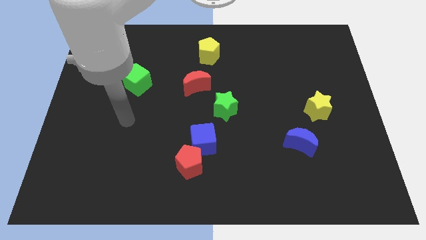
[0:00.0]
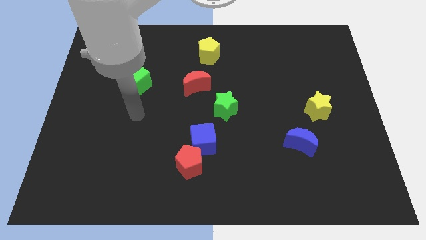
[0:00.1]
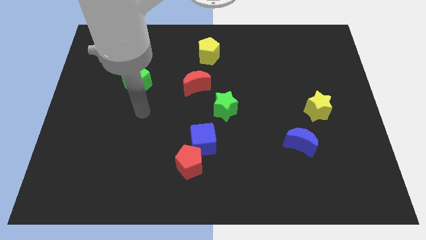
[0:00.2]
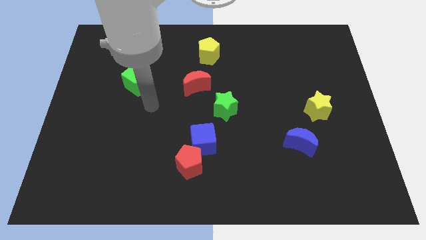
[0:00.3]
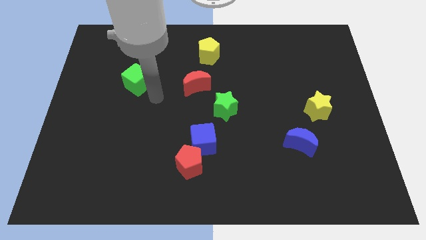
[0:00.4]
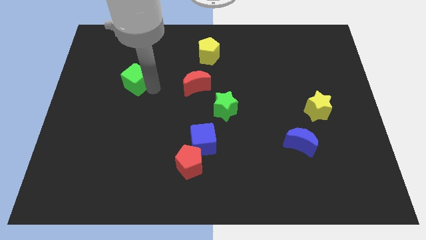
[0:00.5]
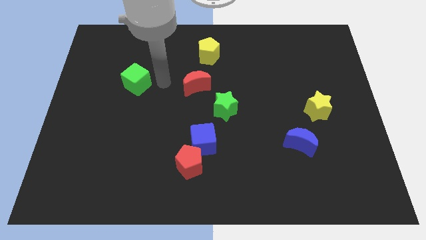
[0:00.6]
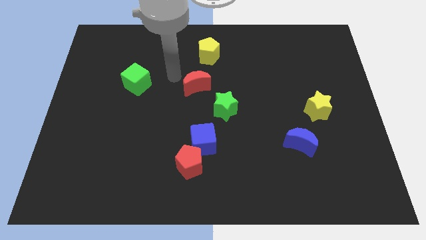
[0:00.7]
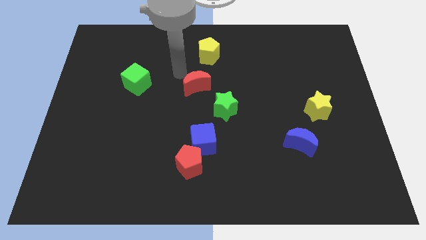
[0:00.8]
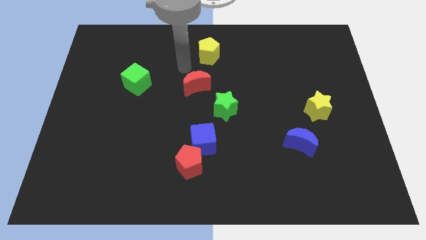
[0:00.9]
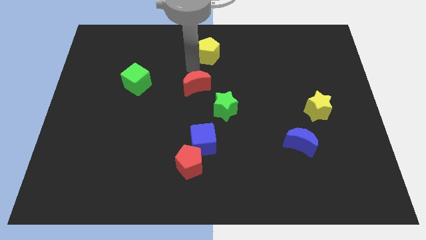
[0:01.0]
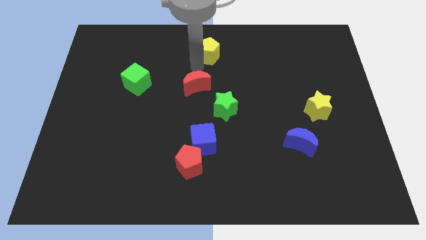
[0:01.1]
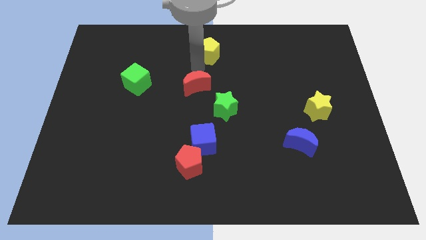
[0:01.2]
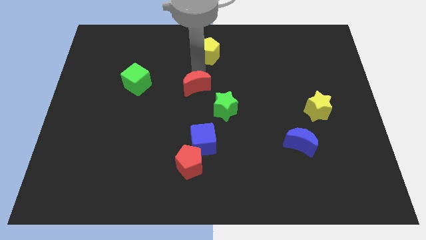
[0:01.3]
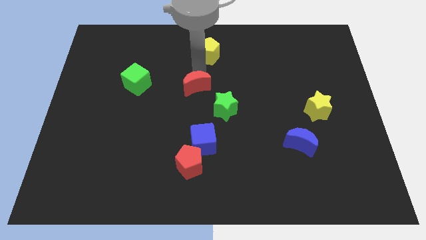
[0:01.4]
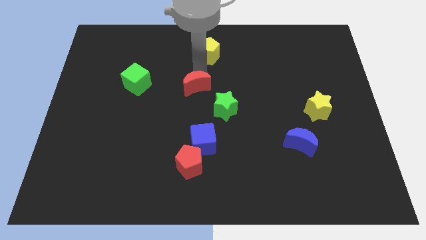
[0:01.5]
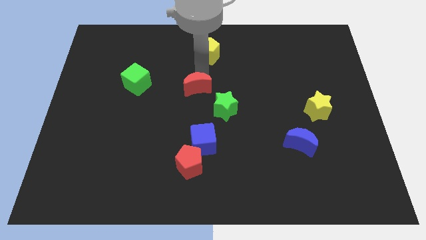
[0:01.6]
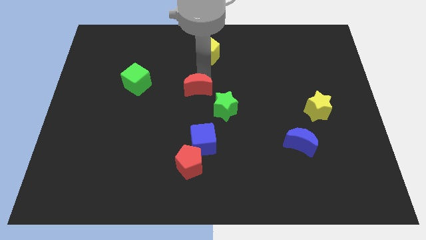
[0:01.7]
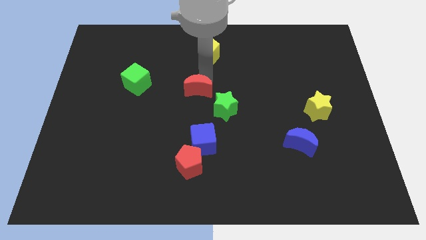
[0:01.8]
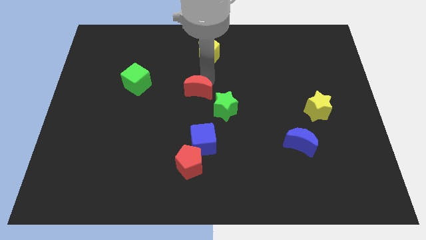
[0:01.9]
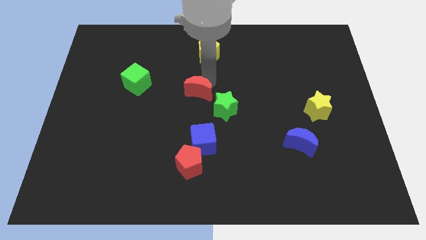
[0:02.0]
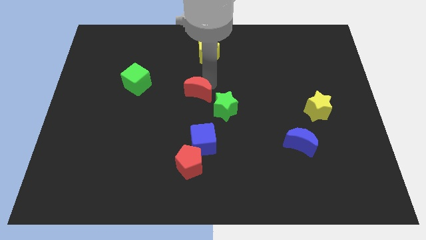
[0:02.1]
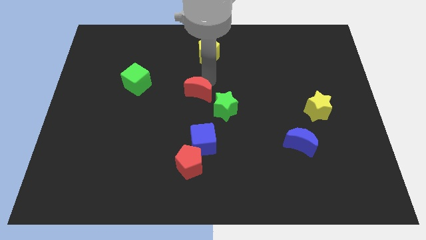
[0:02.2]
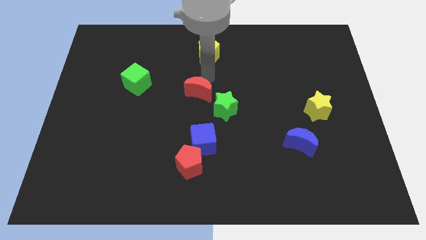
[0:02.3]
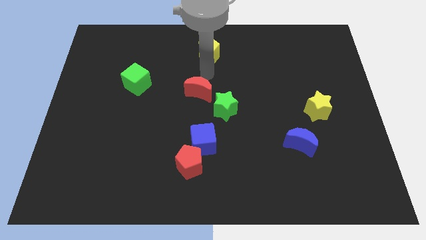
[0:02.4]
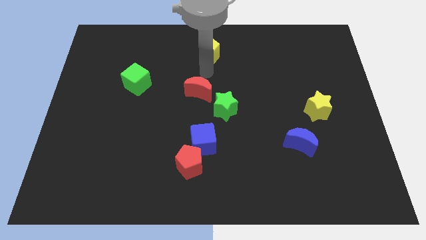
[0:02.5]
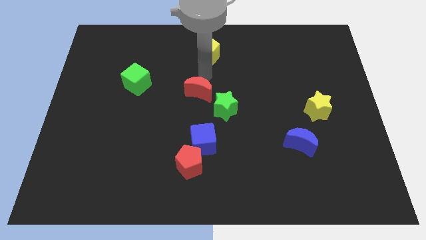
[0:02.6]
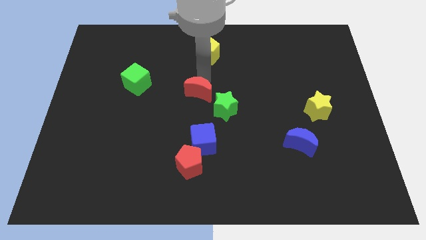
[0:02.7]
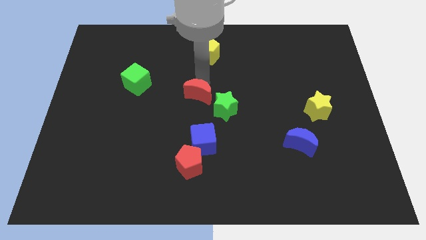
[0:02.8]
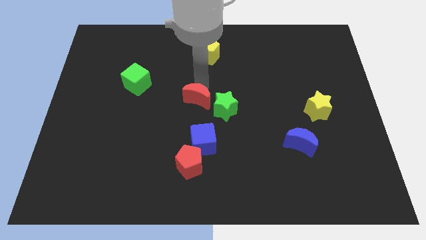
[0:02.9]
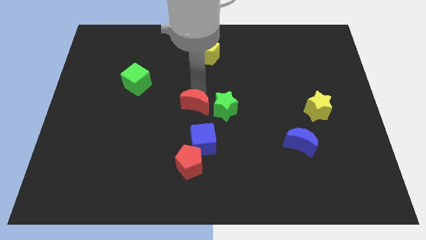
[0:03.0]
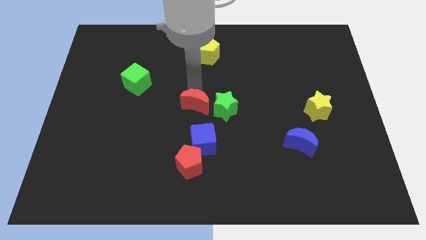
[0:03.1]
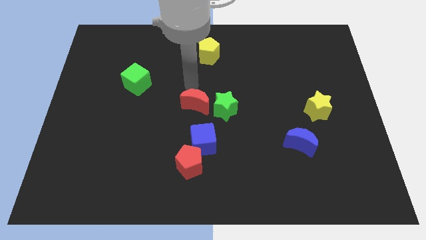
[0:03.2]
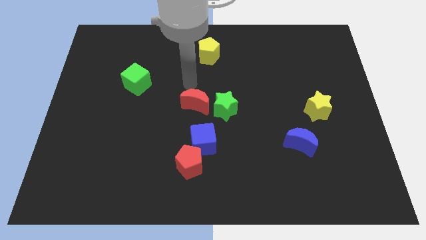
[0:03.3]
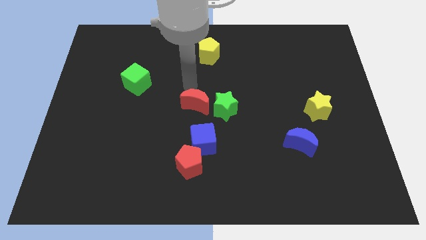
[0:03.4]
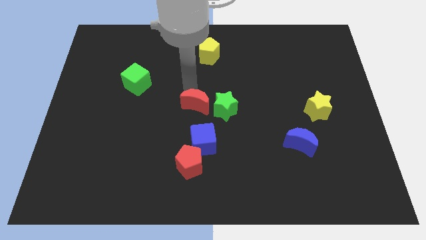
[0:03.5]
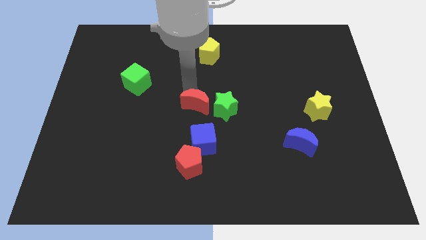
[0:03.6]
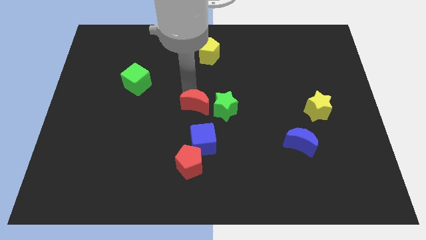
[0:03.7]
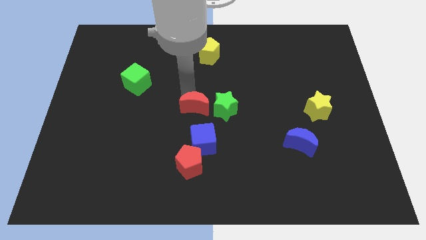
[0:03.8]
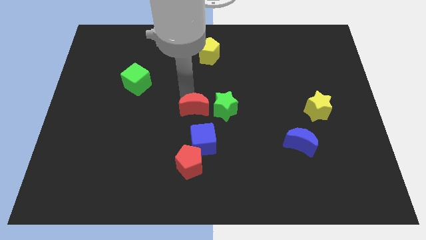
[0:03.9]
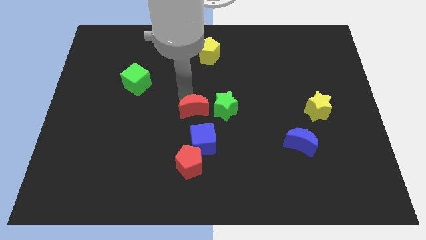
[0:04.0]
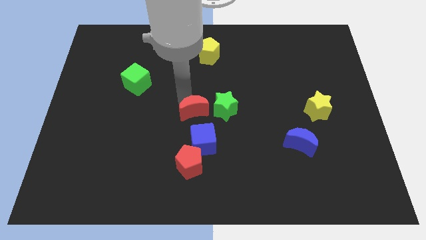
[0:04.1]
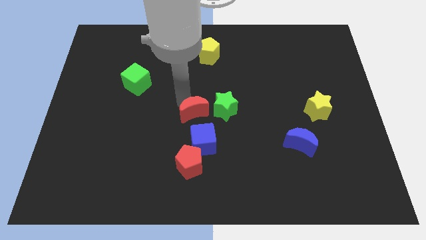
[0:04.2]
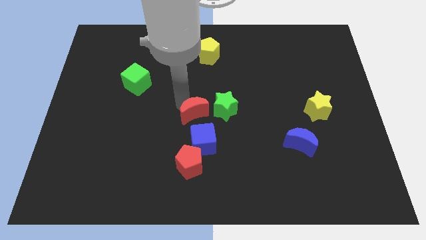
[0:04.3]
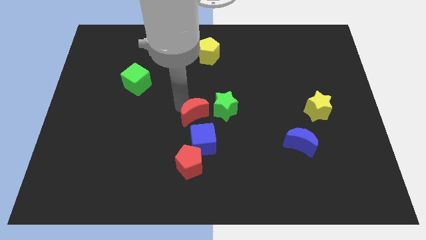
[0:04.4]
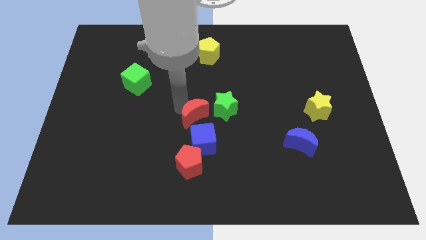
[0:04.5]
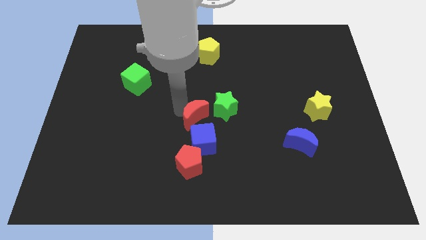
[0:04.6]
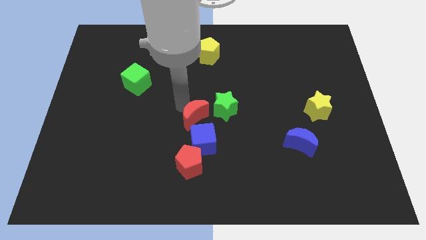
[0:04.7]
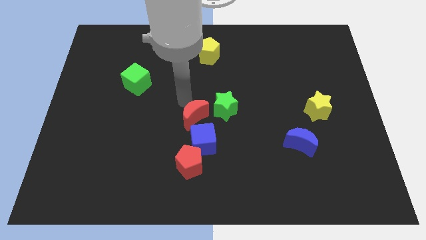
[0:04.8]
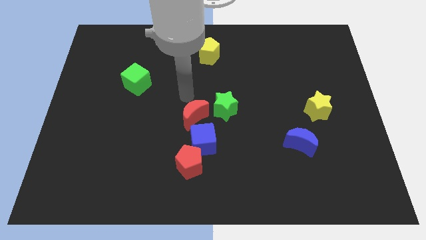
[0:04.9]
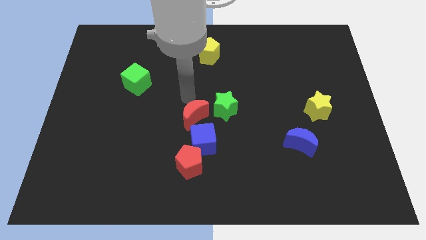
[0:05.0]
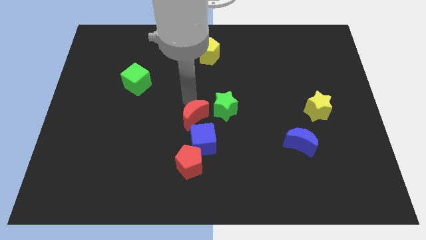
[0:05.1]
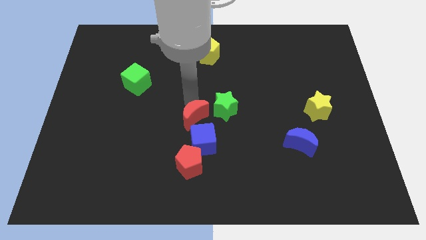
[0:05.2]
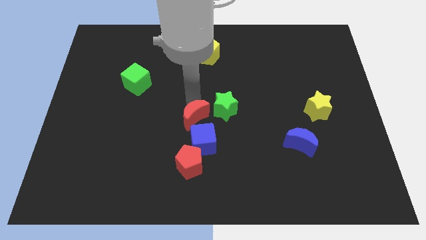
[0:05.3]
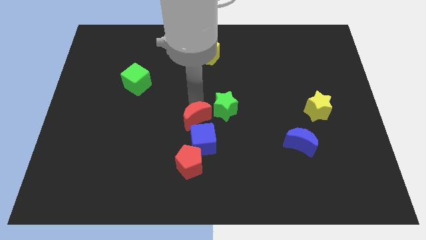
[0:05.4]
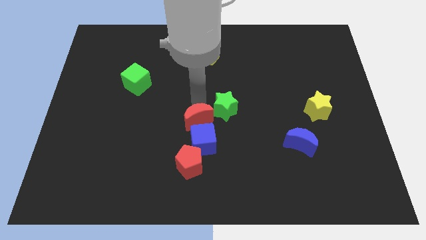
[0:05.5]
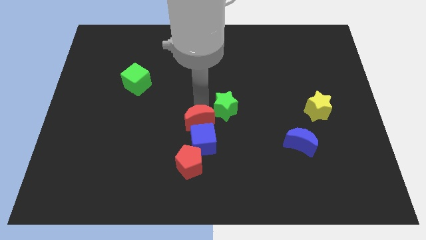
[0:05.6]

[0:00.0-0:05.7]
slide the red moon close to the blue cube
